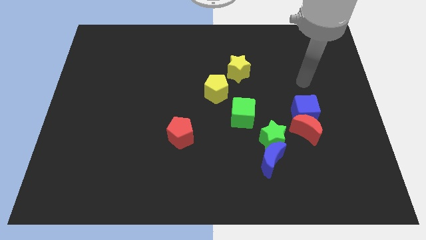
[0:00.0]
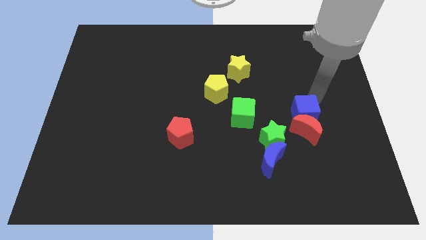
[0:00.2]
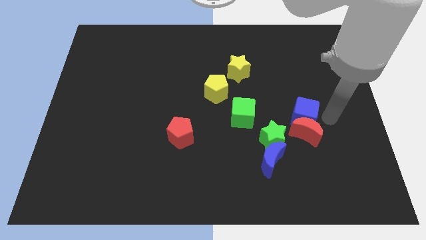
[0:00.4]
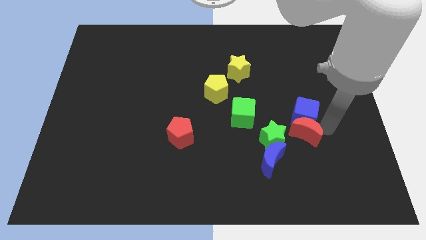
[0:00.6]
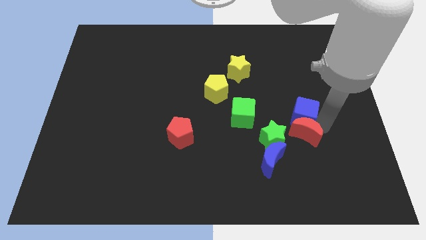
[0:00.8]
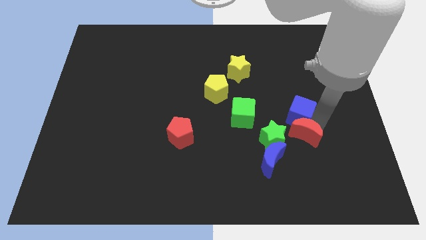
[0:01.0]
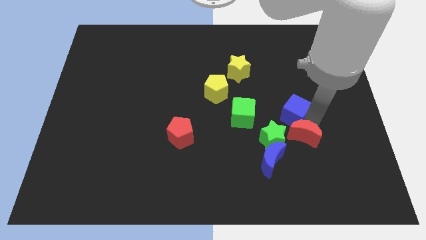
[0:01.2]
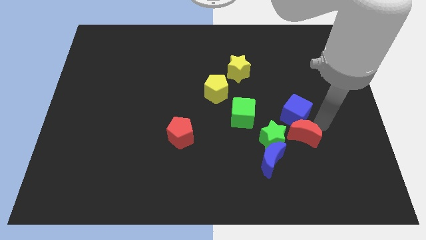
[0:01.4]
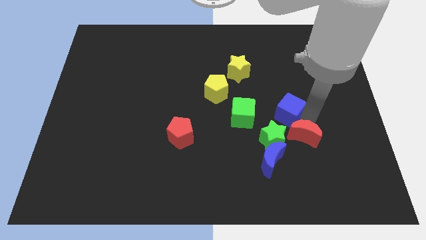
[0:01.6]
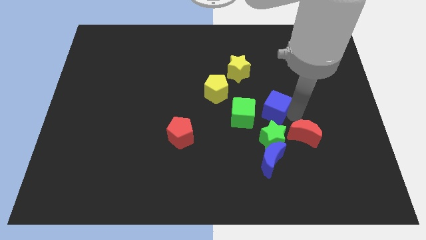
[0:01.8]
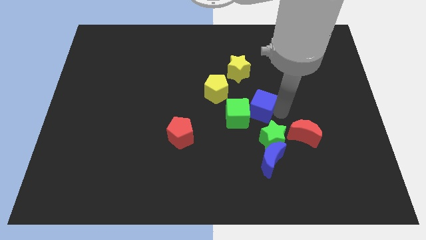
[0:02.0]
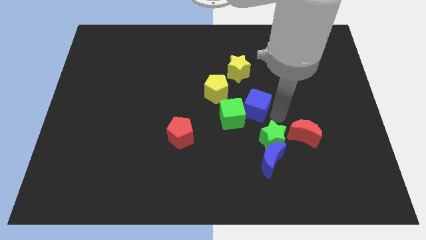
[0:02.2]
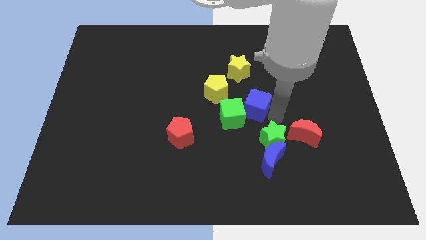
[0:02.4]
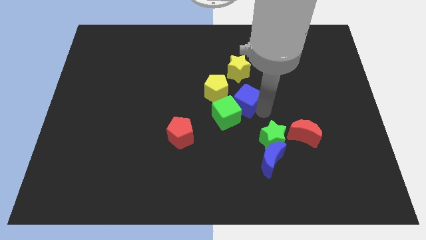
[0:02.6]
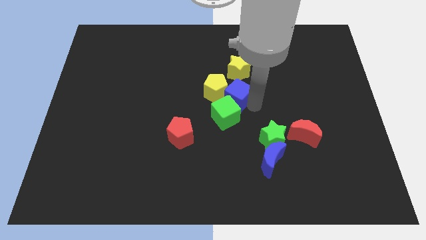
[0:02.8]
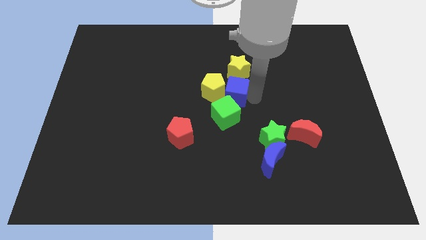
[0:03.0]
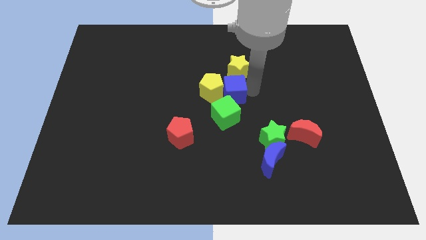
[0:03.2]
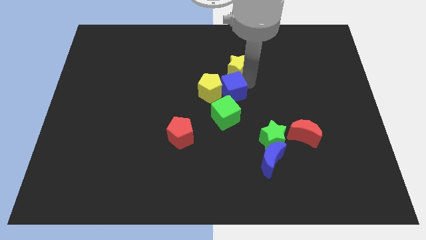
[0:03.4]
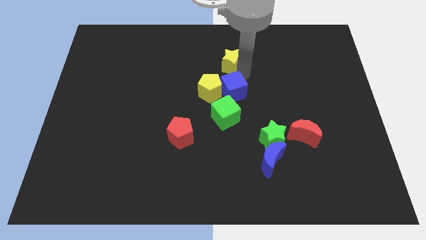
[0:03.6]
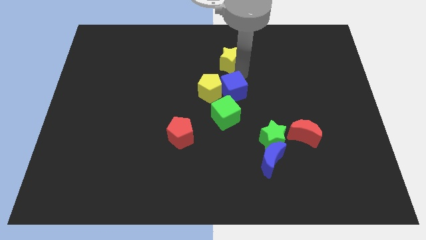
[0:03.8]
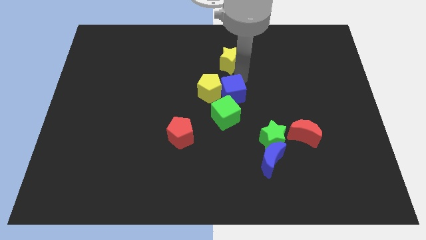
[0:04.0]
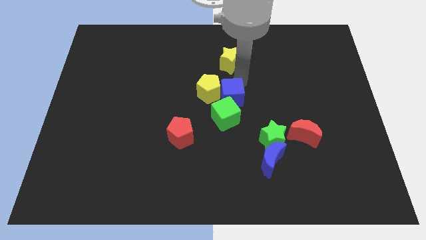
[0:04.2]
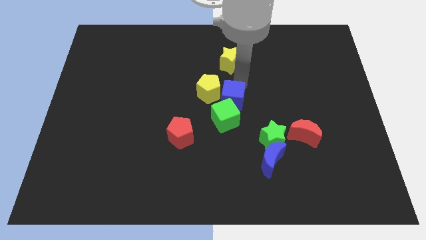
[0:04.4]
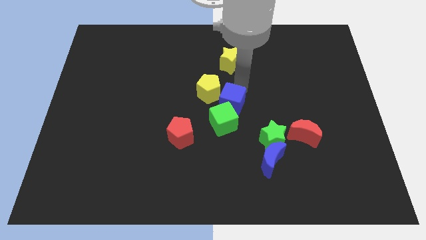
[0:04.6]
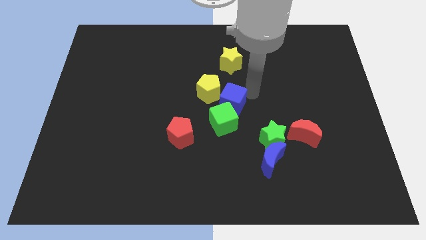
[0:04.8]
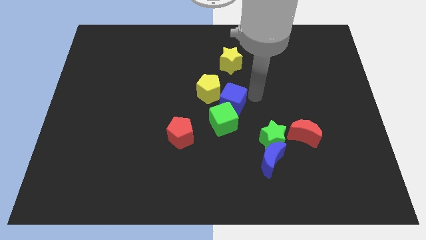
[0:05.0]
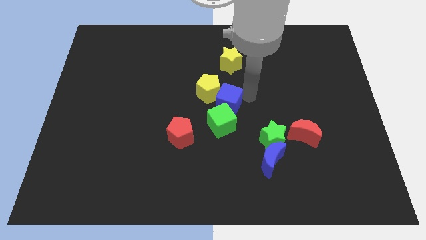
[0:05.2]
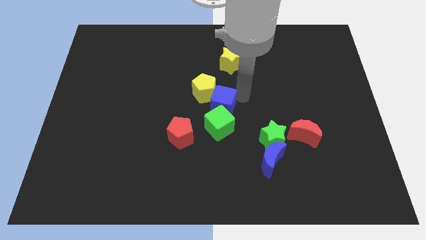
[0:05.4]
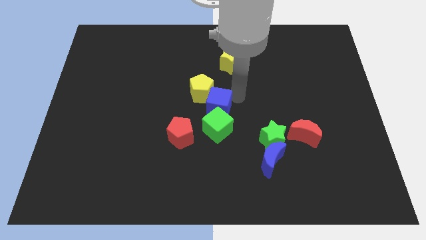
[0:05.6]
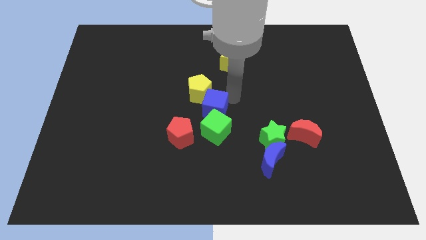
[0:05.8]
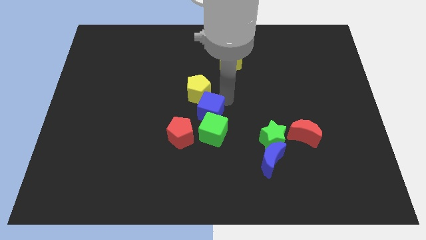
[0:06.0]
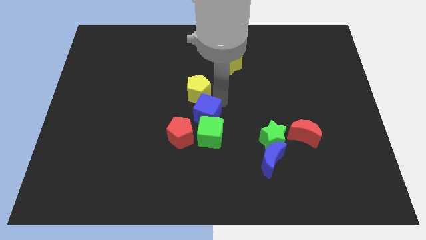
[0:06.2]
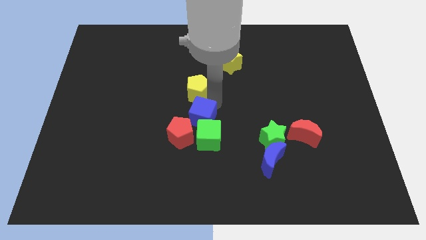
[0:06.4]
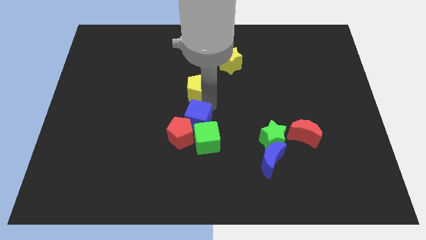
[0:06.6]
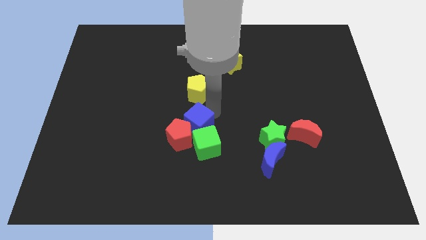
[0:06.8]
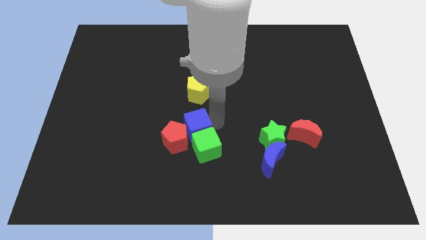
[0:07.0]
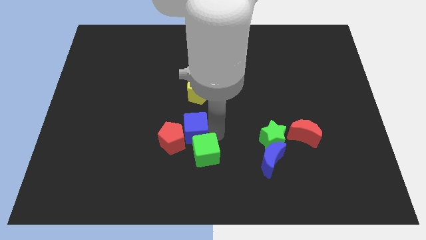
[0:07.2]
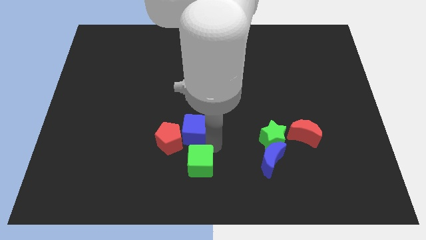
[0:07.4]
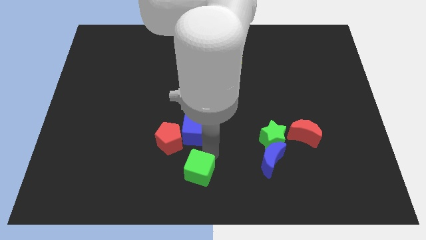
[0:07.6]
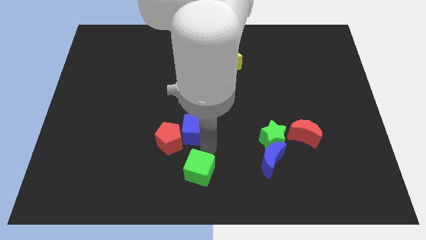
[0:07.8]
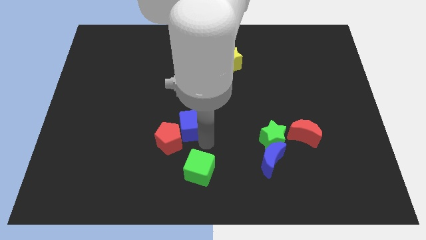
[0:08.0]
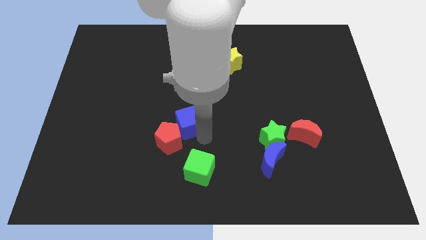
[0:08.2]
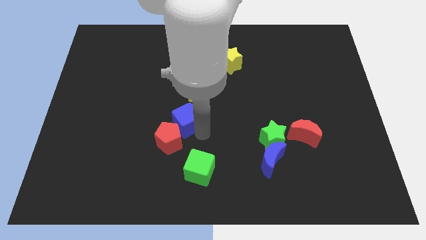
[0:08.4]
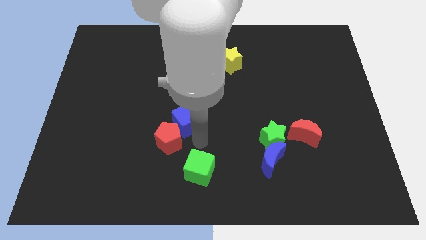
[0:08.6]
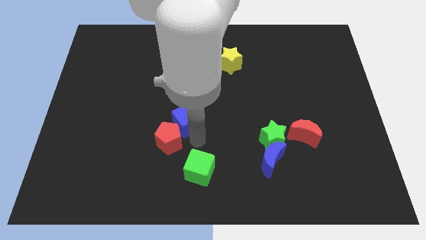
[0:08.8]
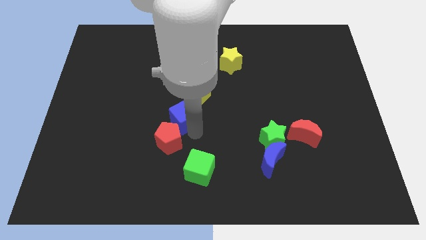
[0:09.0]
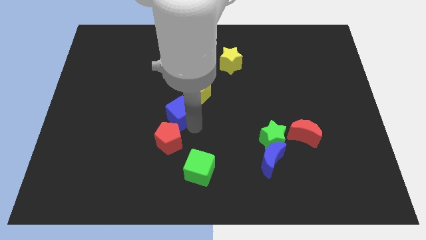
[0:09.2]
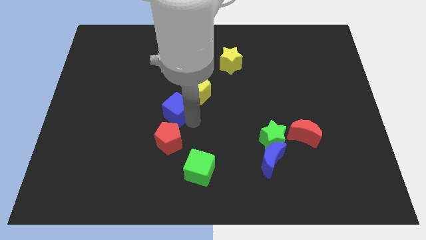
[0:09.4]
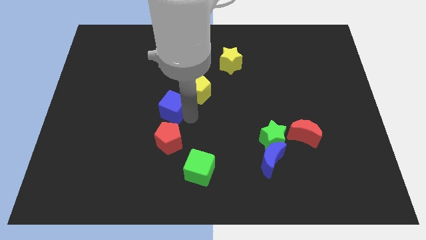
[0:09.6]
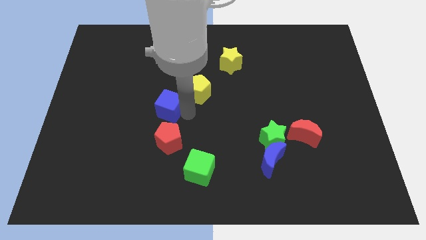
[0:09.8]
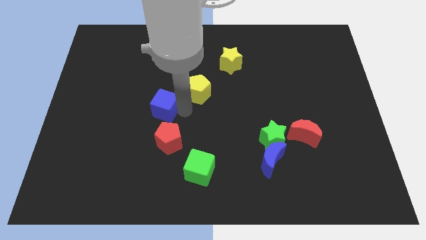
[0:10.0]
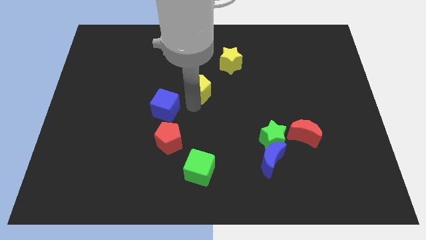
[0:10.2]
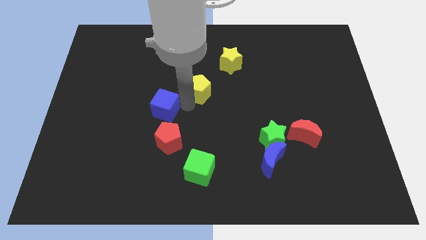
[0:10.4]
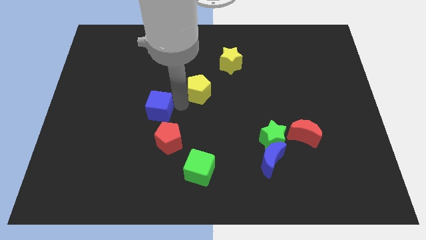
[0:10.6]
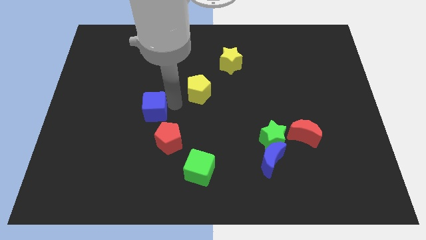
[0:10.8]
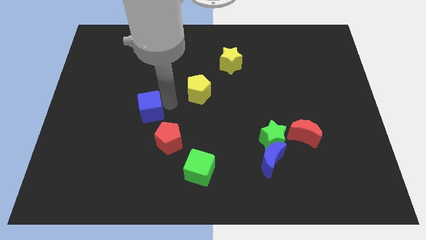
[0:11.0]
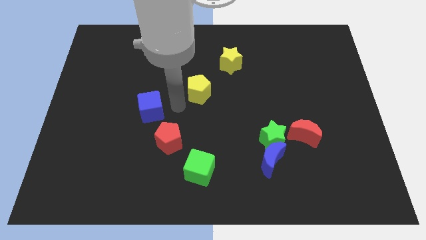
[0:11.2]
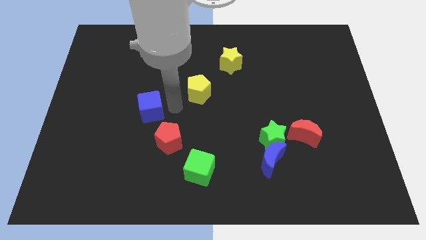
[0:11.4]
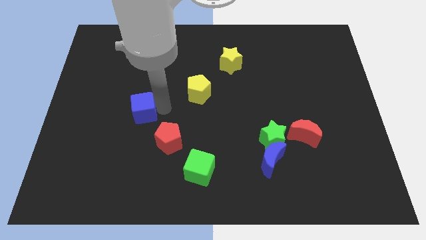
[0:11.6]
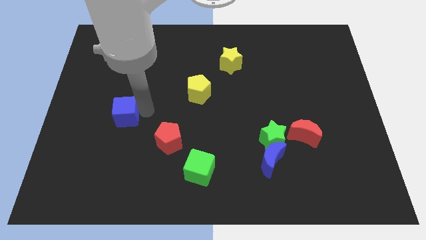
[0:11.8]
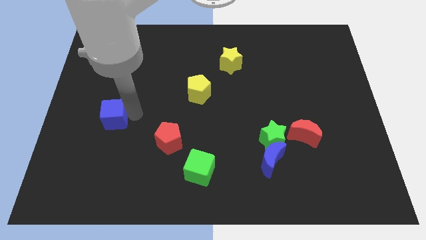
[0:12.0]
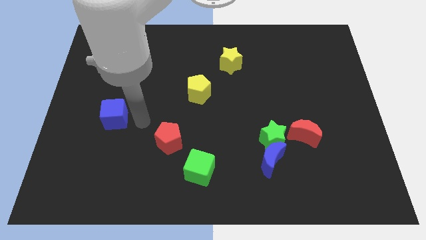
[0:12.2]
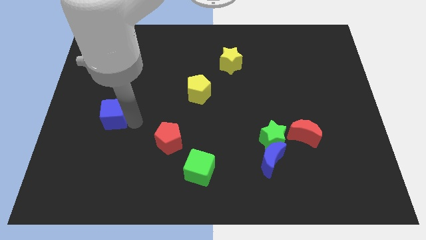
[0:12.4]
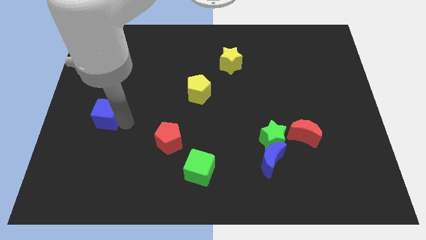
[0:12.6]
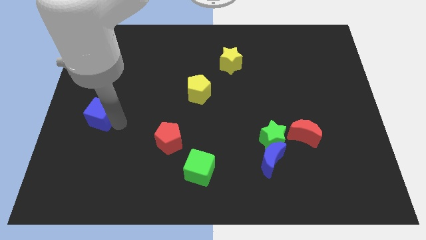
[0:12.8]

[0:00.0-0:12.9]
slide the blue cube to the left side

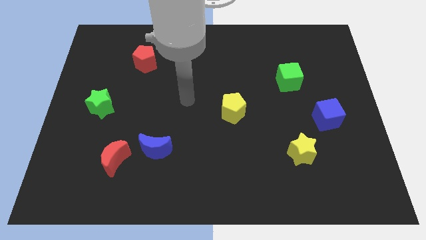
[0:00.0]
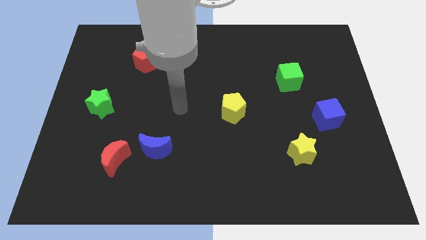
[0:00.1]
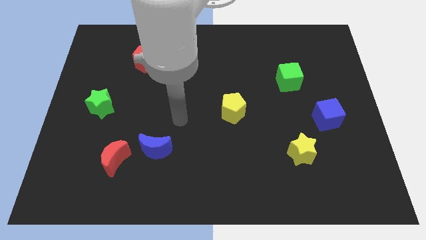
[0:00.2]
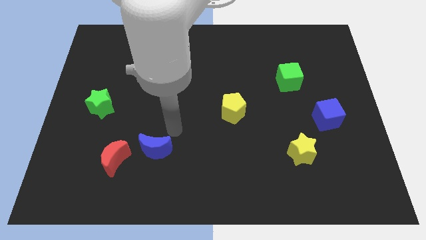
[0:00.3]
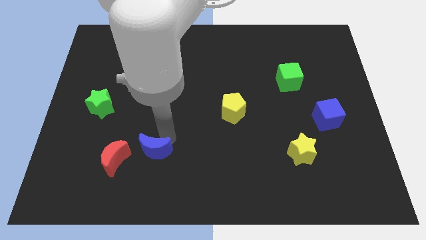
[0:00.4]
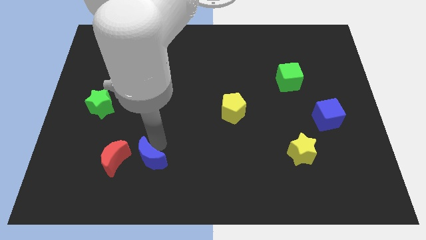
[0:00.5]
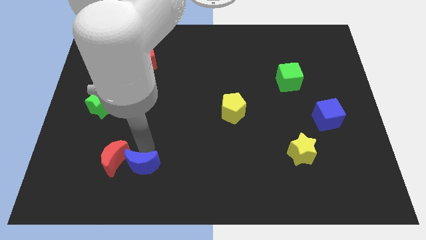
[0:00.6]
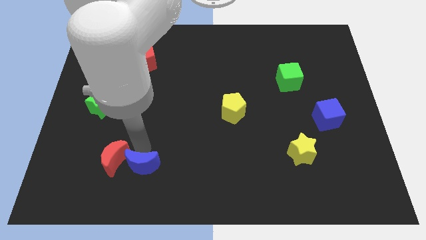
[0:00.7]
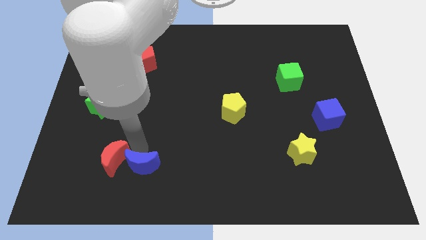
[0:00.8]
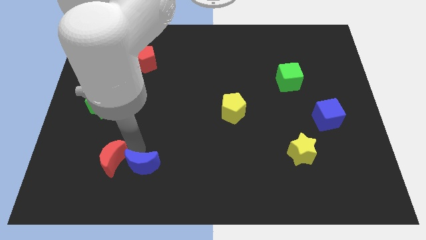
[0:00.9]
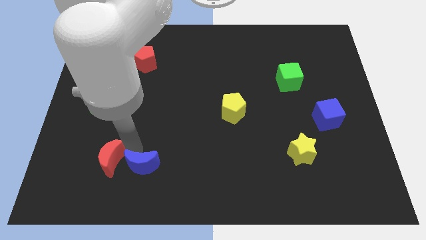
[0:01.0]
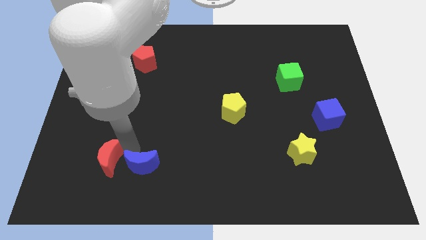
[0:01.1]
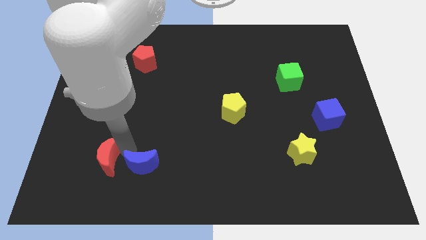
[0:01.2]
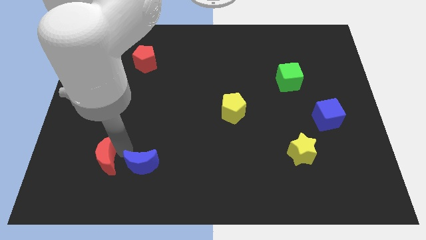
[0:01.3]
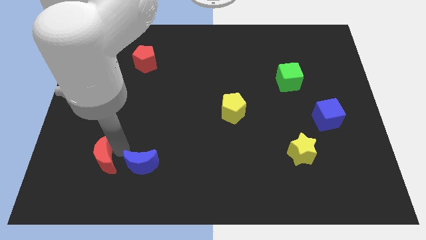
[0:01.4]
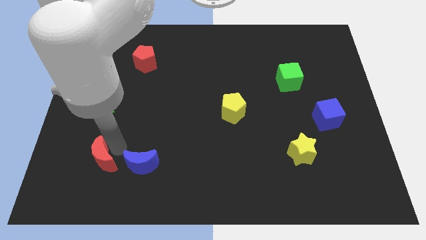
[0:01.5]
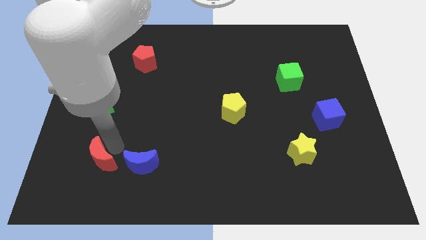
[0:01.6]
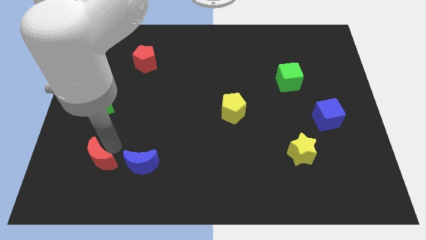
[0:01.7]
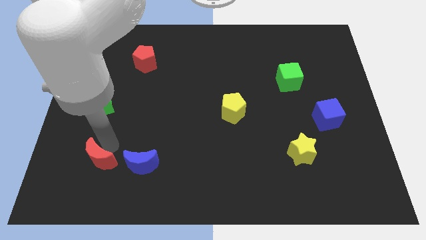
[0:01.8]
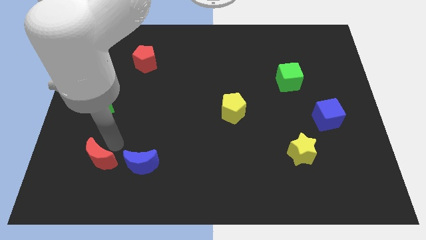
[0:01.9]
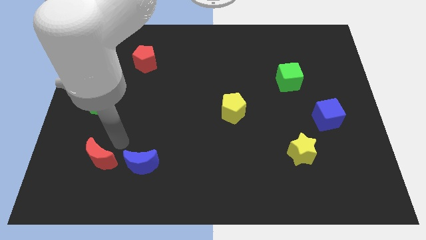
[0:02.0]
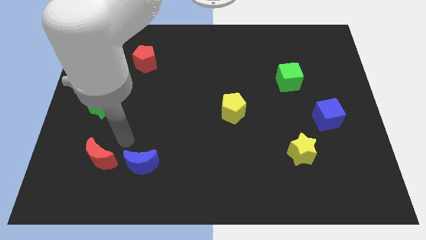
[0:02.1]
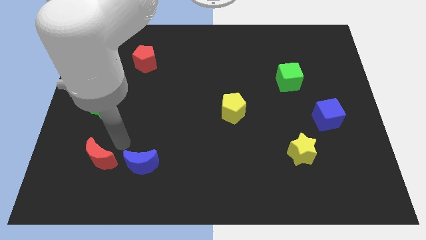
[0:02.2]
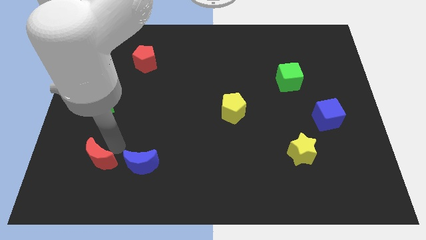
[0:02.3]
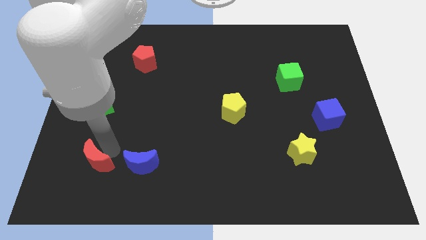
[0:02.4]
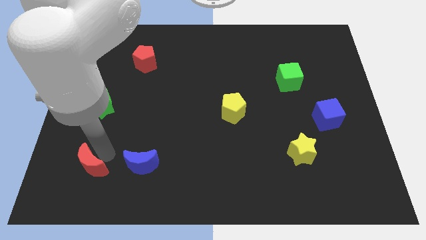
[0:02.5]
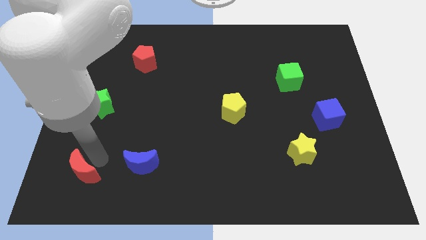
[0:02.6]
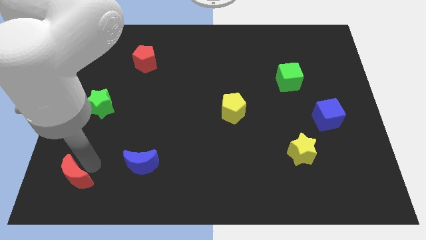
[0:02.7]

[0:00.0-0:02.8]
push the red moon to the bottom left of the board
